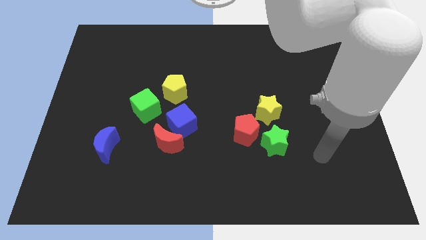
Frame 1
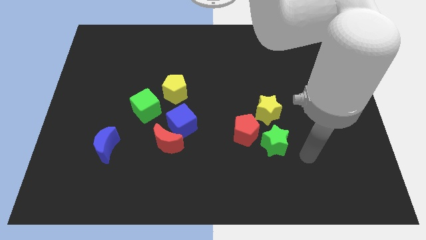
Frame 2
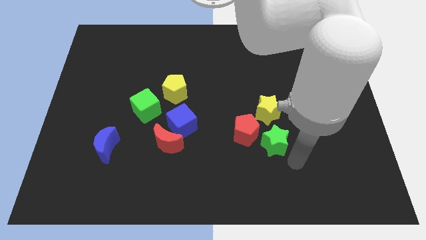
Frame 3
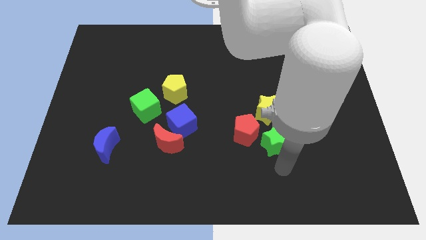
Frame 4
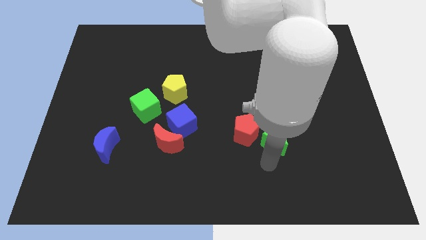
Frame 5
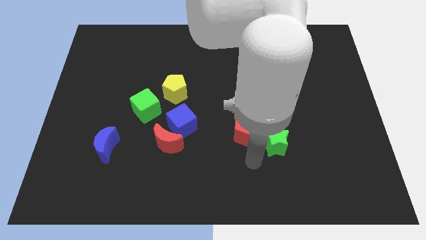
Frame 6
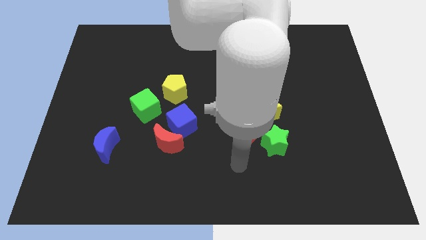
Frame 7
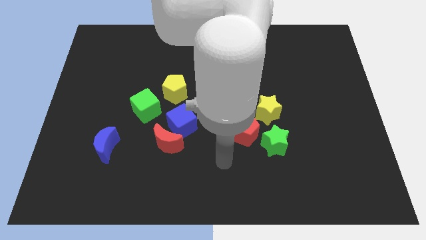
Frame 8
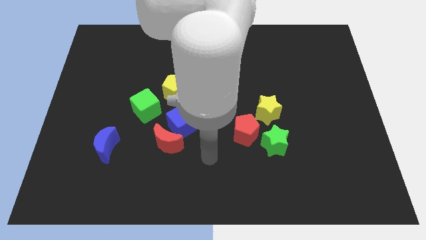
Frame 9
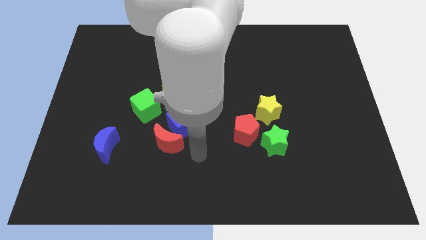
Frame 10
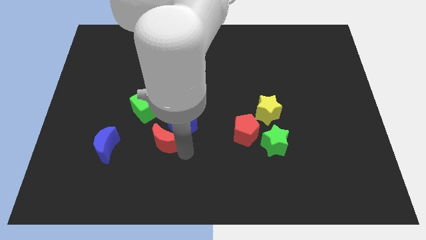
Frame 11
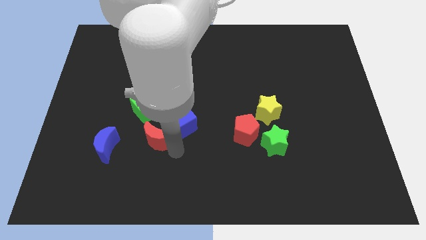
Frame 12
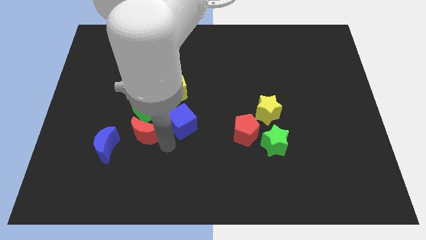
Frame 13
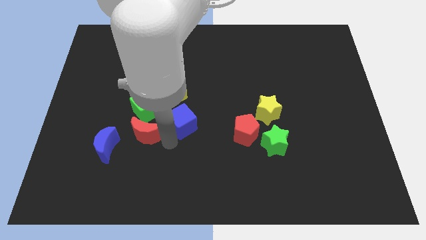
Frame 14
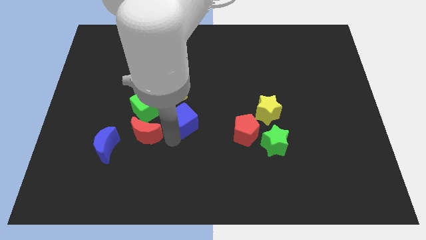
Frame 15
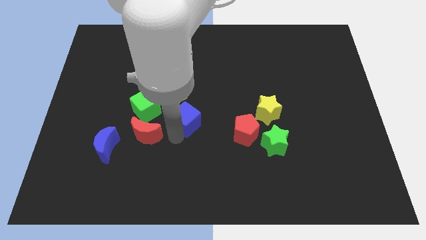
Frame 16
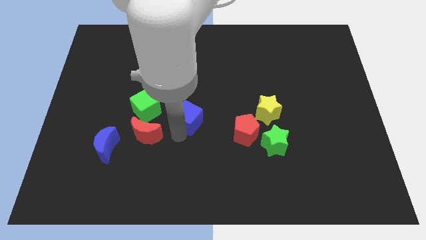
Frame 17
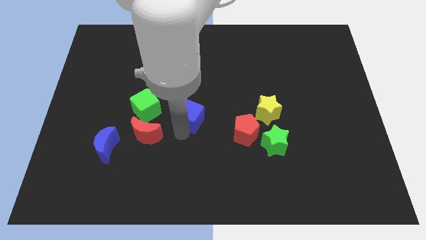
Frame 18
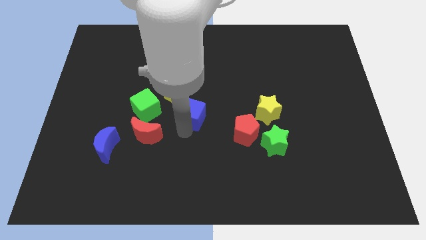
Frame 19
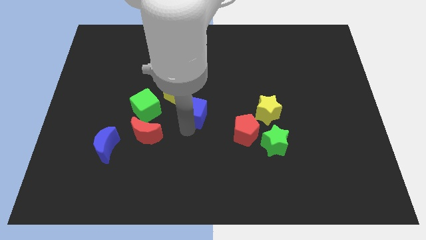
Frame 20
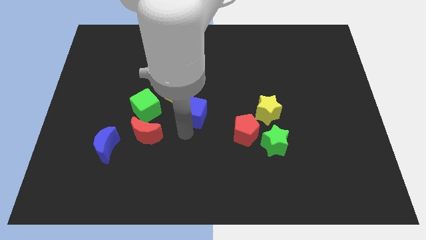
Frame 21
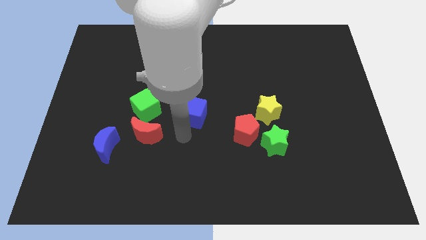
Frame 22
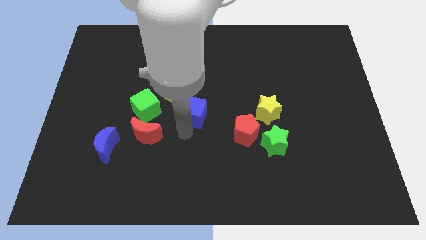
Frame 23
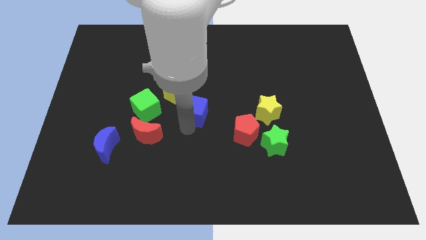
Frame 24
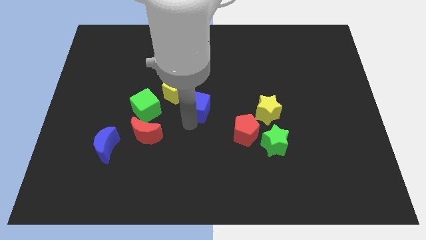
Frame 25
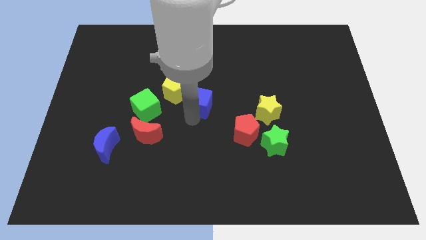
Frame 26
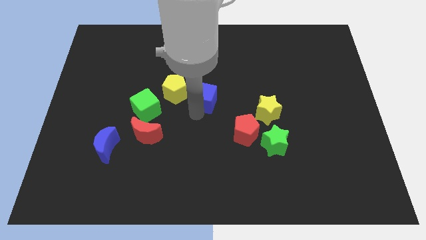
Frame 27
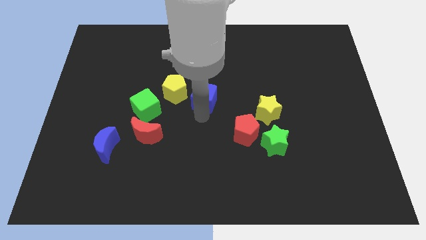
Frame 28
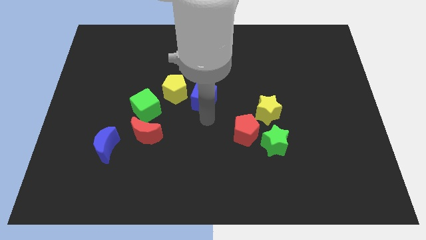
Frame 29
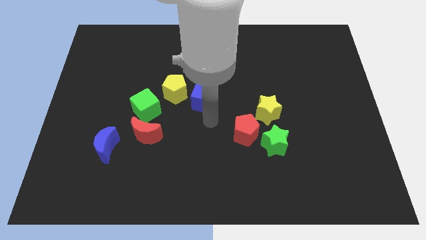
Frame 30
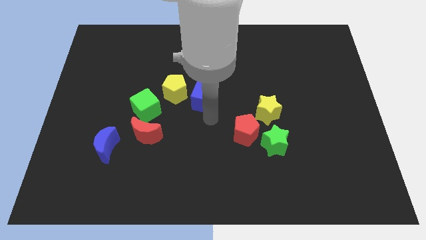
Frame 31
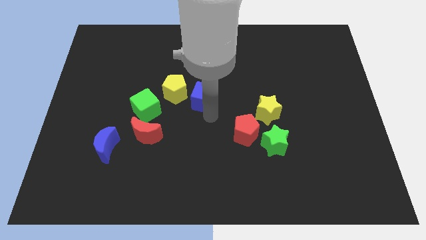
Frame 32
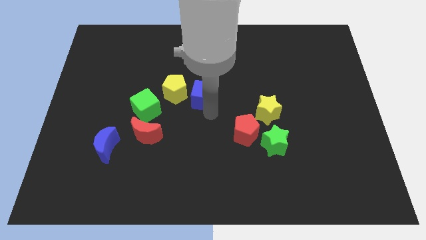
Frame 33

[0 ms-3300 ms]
push the blue cube up a little bit

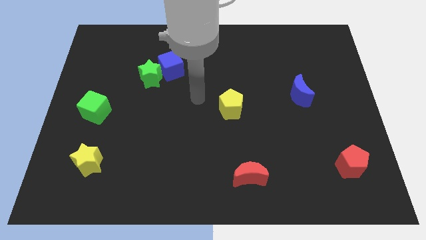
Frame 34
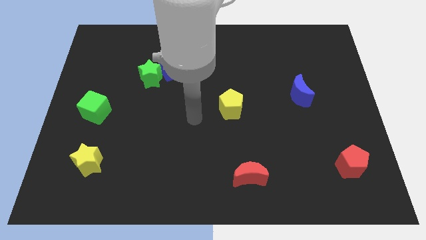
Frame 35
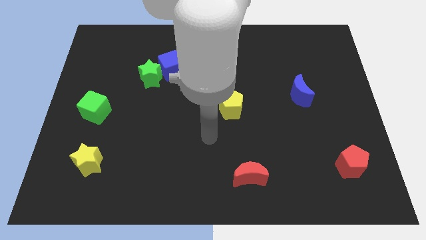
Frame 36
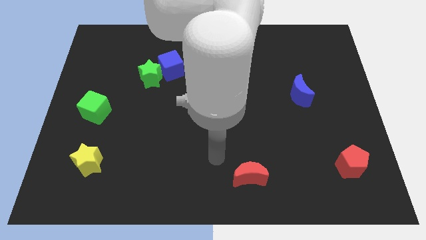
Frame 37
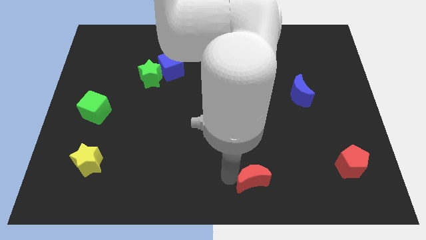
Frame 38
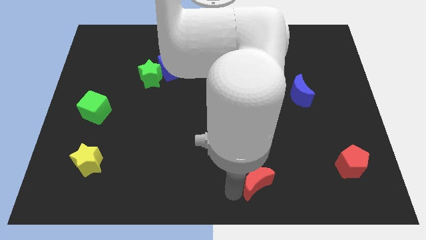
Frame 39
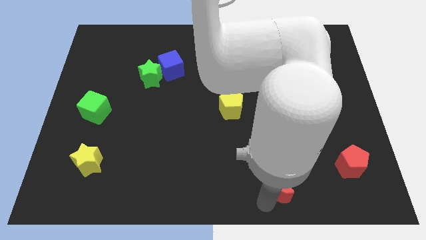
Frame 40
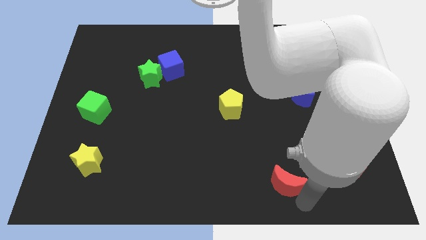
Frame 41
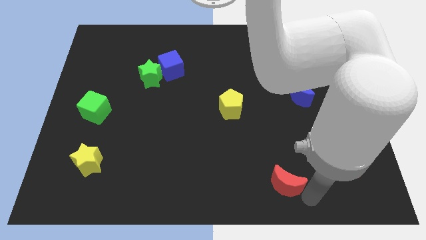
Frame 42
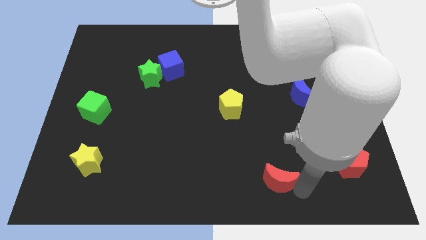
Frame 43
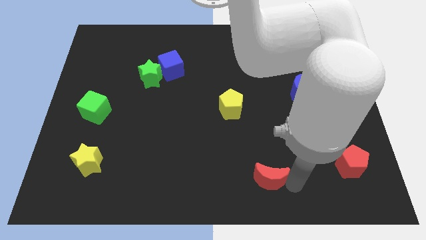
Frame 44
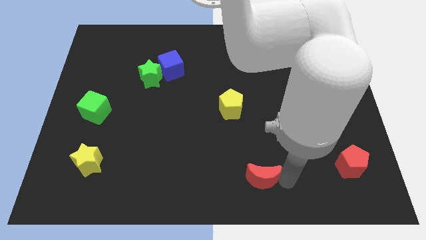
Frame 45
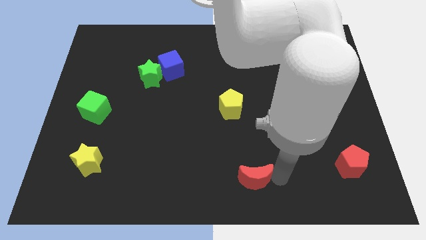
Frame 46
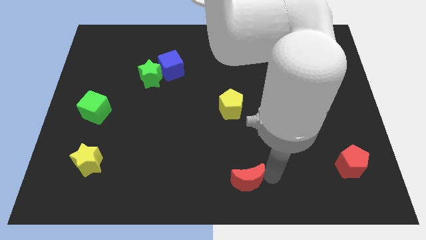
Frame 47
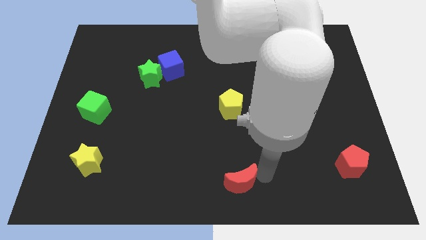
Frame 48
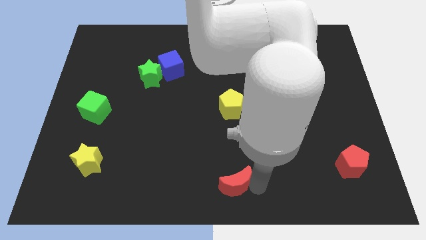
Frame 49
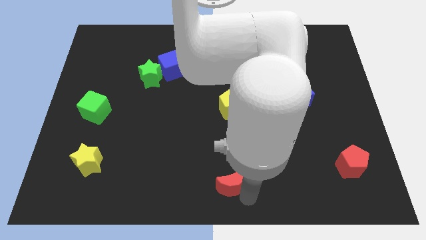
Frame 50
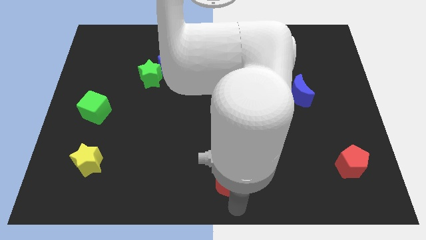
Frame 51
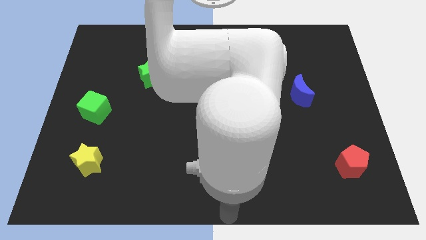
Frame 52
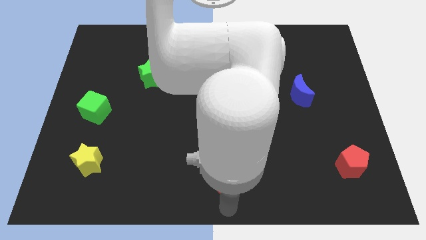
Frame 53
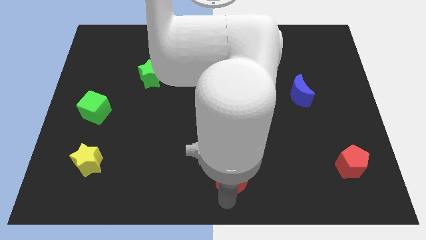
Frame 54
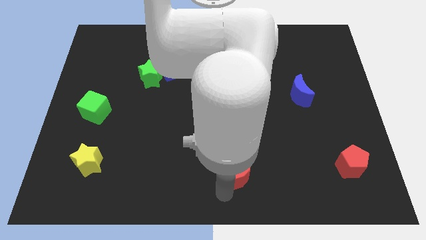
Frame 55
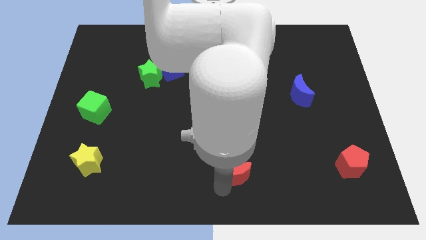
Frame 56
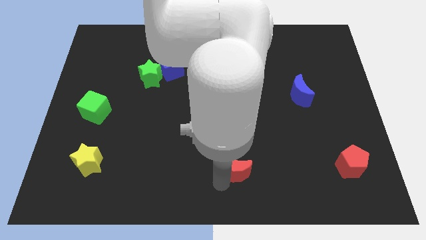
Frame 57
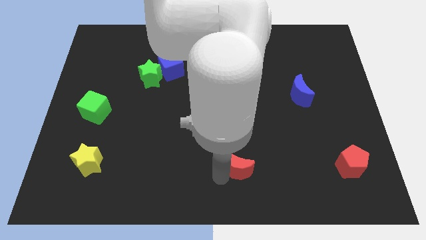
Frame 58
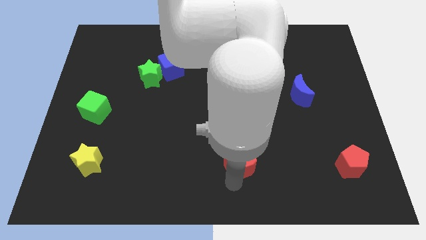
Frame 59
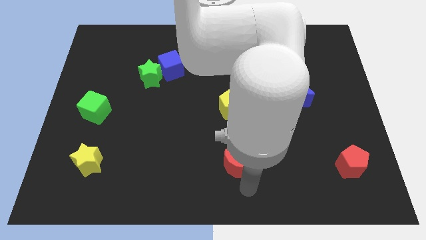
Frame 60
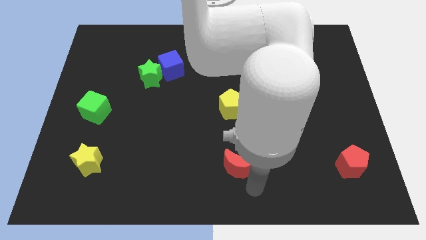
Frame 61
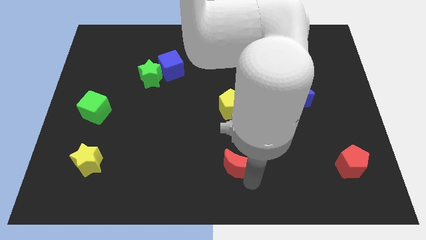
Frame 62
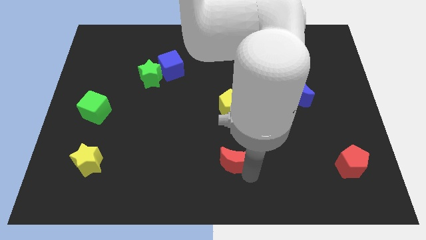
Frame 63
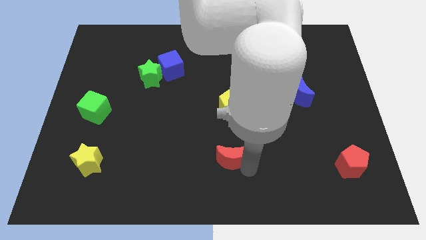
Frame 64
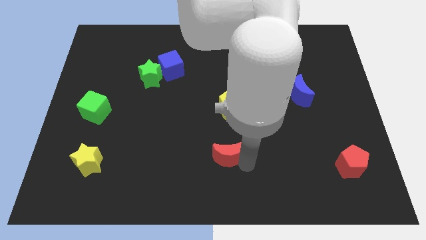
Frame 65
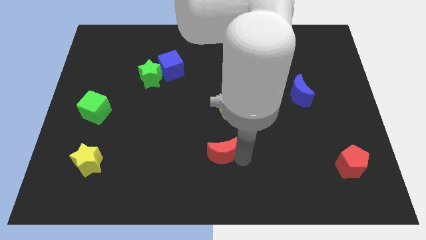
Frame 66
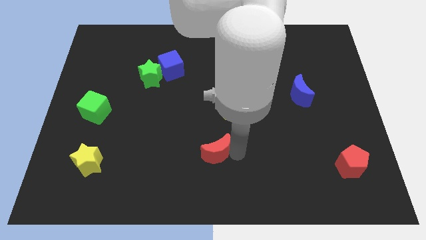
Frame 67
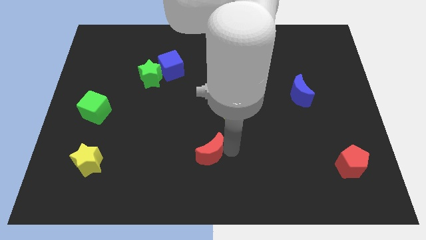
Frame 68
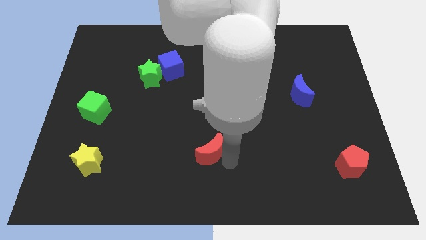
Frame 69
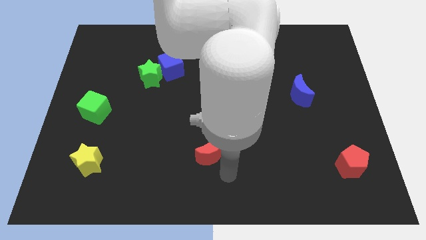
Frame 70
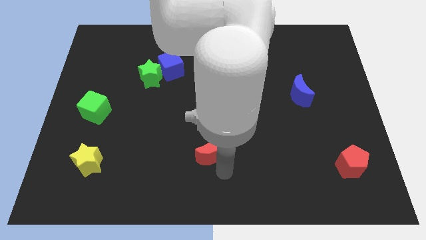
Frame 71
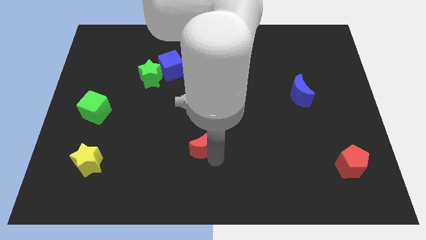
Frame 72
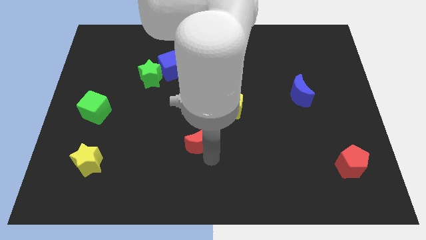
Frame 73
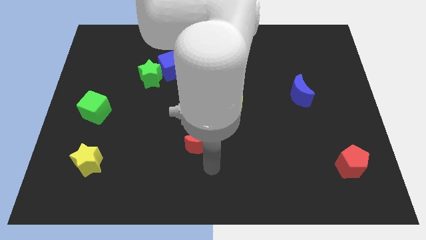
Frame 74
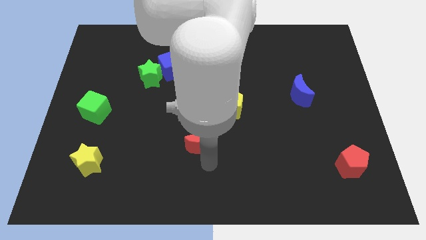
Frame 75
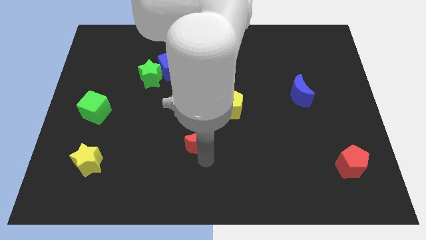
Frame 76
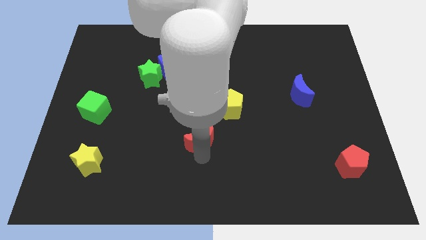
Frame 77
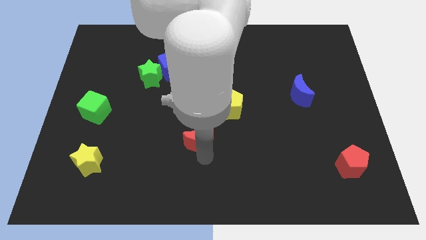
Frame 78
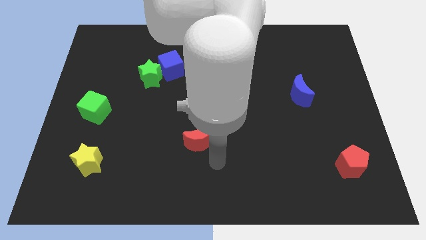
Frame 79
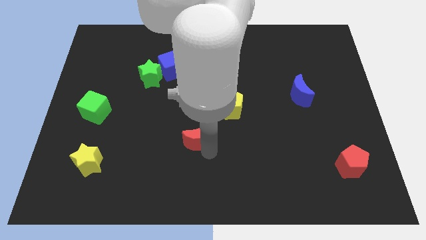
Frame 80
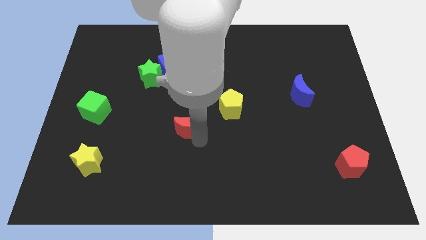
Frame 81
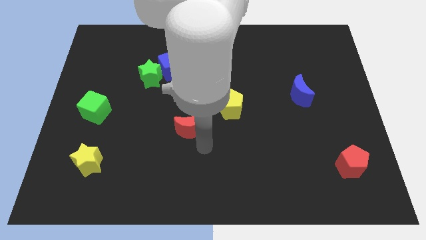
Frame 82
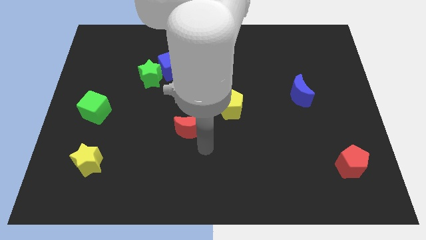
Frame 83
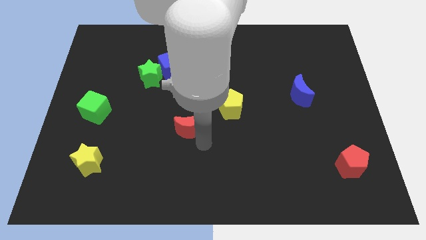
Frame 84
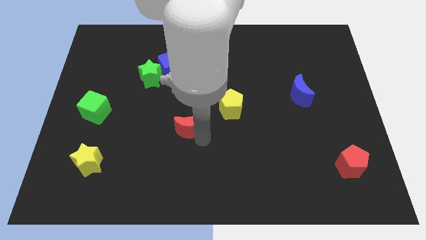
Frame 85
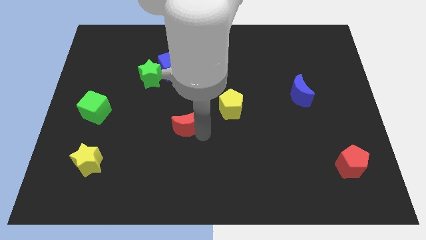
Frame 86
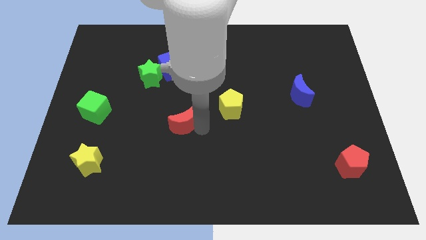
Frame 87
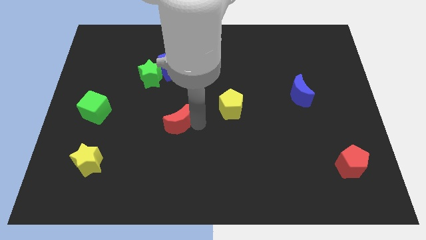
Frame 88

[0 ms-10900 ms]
slide the red moon upwards and left diagonally
